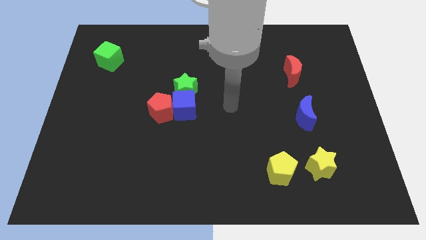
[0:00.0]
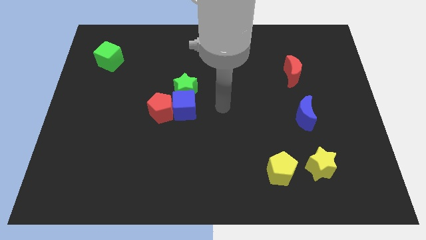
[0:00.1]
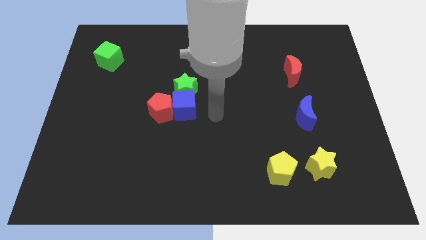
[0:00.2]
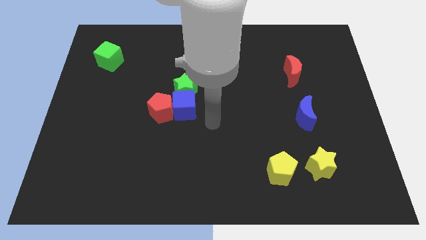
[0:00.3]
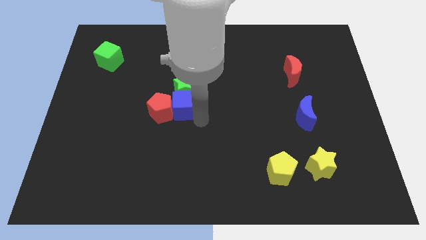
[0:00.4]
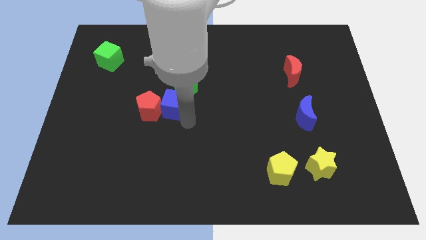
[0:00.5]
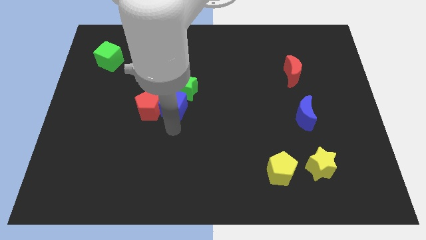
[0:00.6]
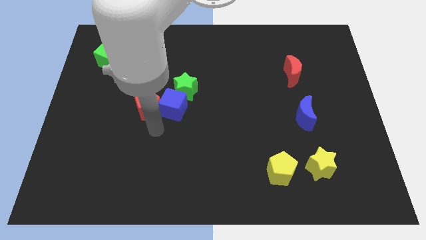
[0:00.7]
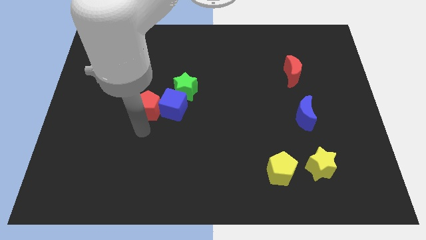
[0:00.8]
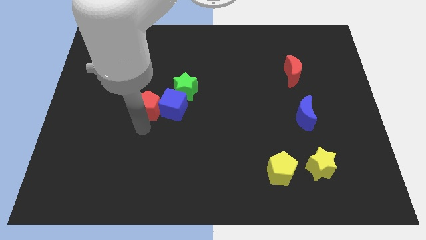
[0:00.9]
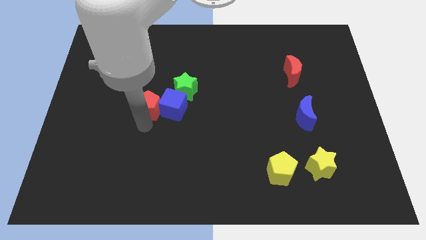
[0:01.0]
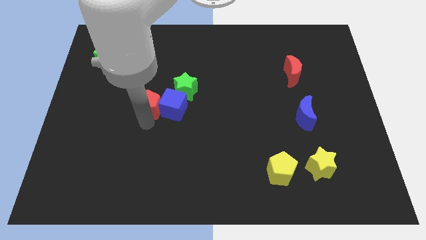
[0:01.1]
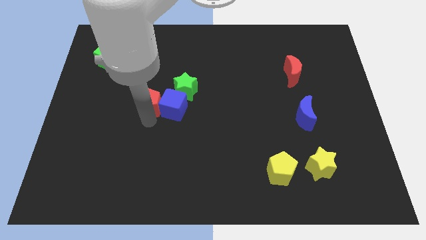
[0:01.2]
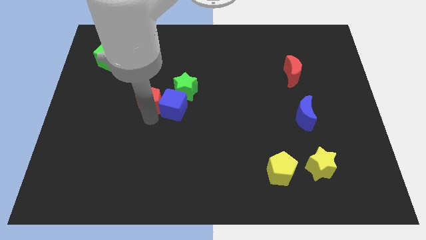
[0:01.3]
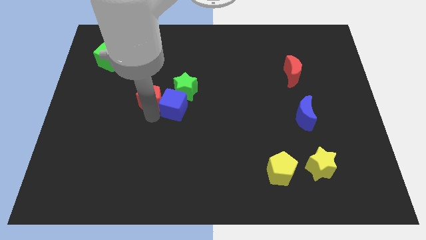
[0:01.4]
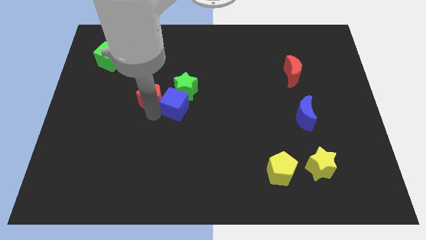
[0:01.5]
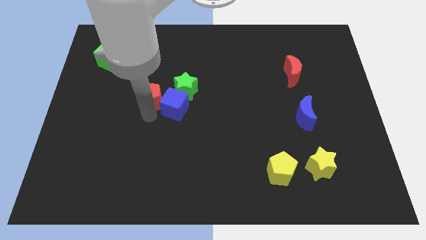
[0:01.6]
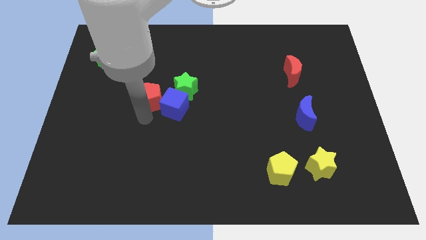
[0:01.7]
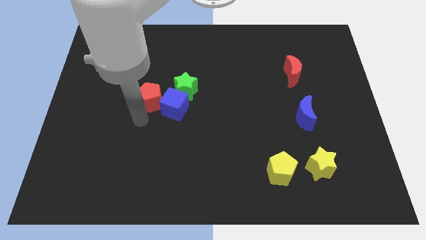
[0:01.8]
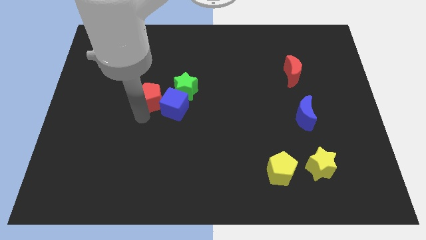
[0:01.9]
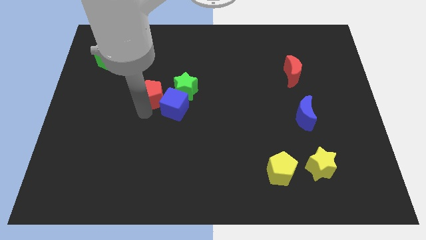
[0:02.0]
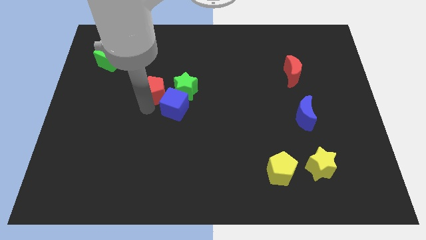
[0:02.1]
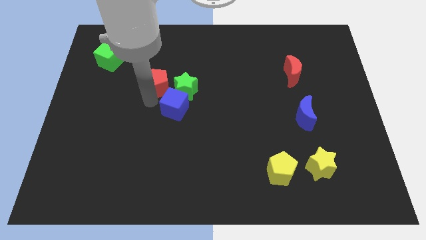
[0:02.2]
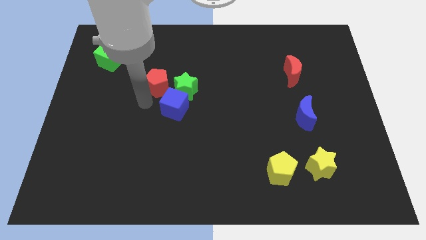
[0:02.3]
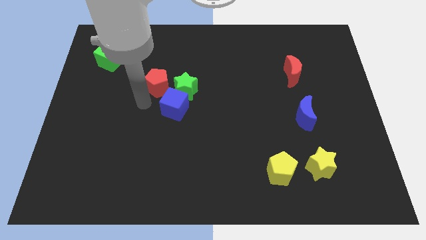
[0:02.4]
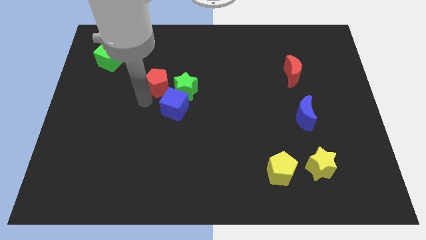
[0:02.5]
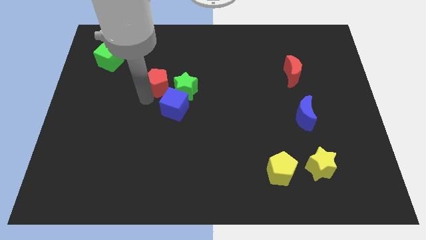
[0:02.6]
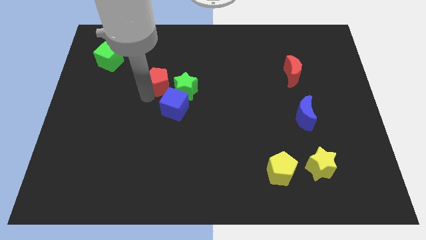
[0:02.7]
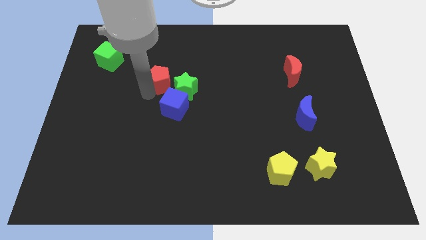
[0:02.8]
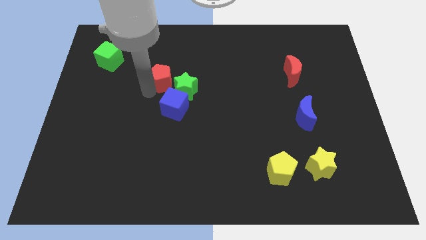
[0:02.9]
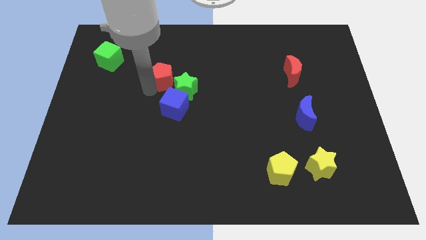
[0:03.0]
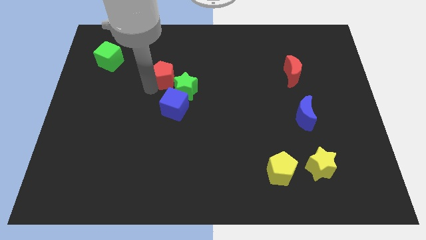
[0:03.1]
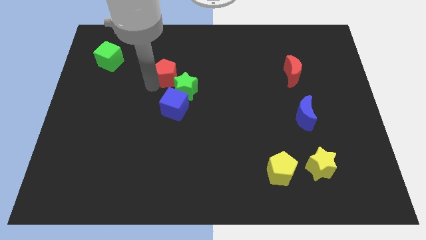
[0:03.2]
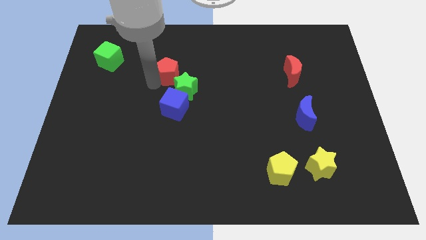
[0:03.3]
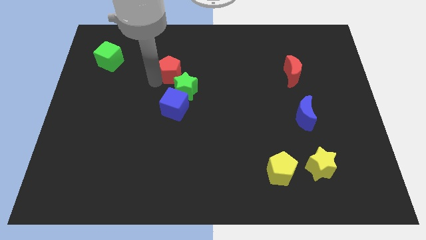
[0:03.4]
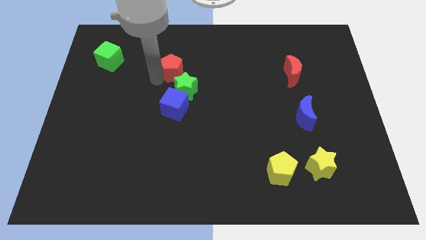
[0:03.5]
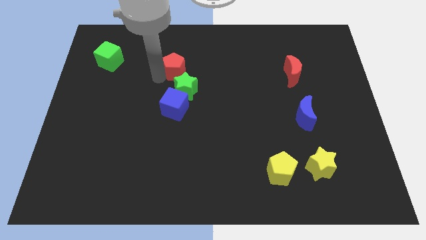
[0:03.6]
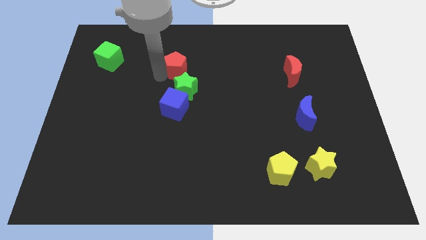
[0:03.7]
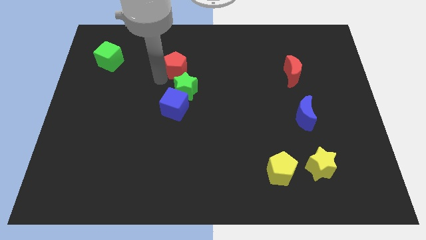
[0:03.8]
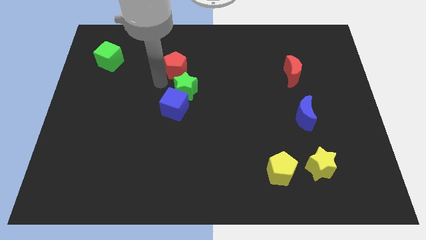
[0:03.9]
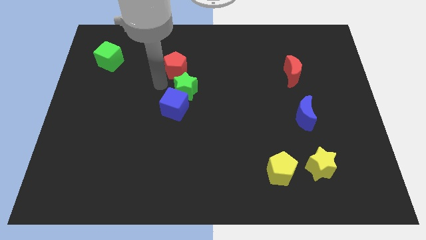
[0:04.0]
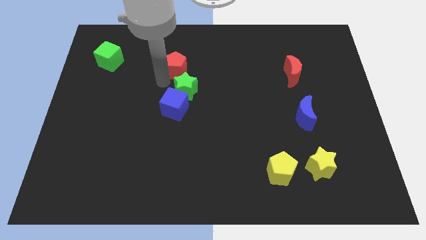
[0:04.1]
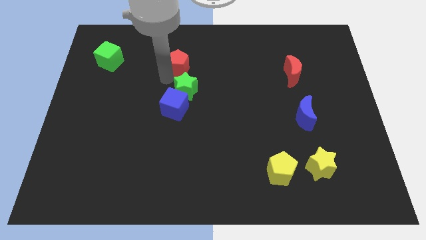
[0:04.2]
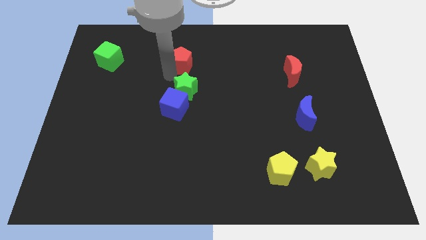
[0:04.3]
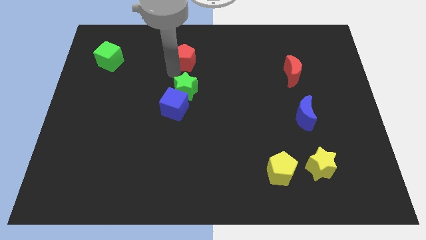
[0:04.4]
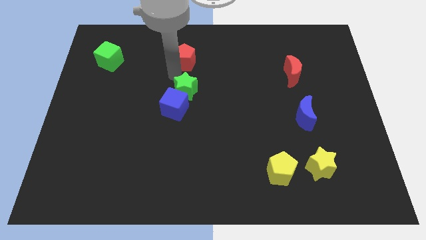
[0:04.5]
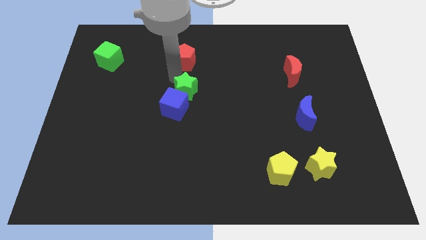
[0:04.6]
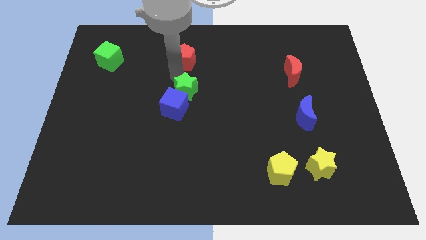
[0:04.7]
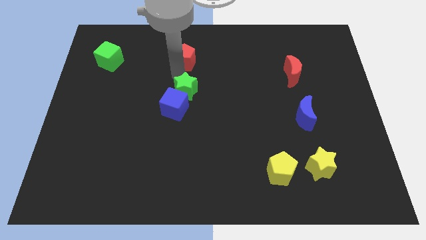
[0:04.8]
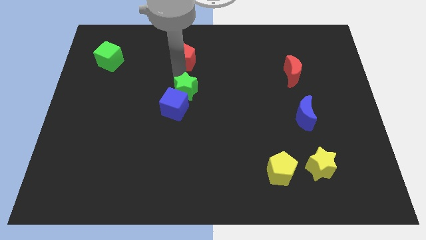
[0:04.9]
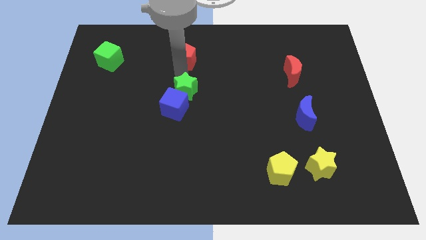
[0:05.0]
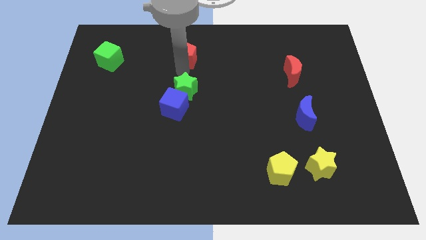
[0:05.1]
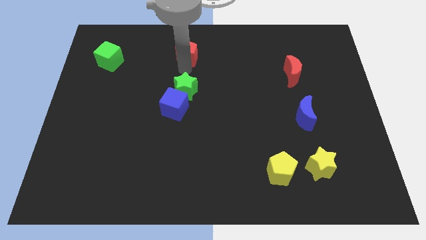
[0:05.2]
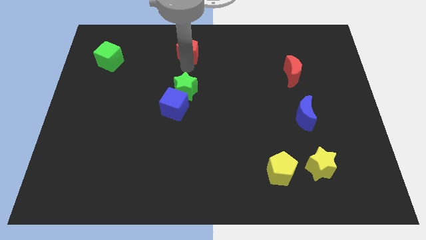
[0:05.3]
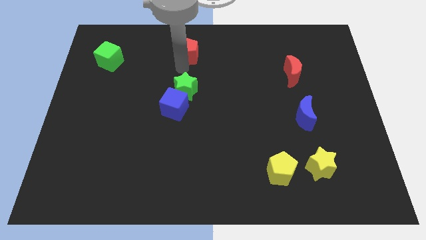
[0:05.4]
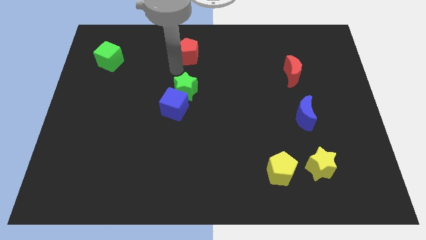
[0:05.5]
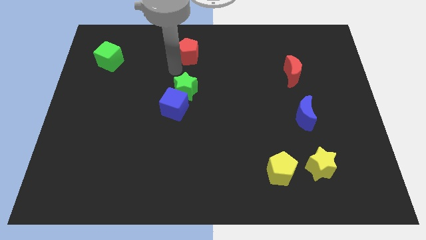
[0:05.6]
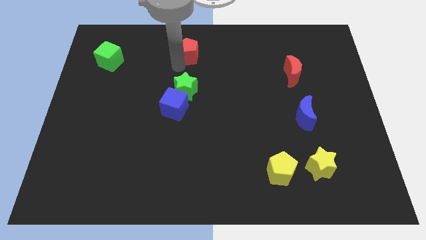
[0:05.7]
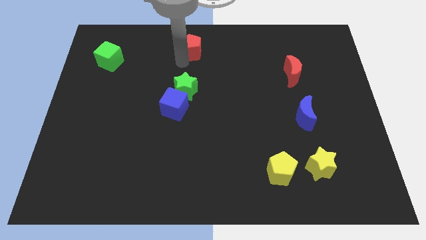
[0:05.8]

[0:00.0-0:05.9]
put the red pentagon to the top side
